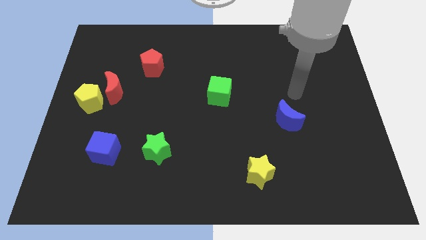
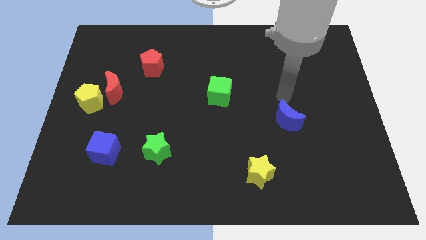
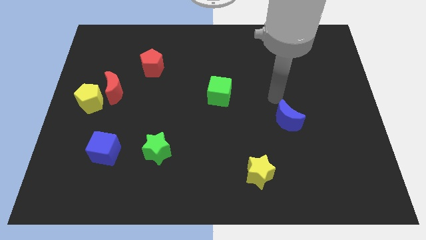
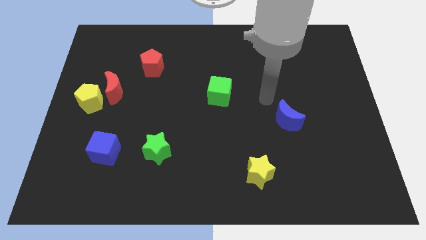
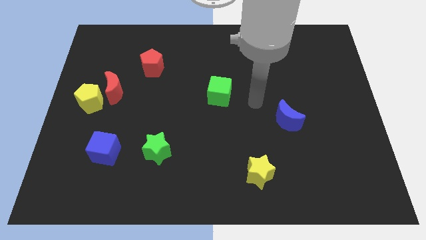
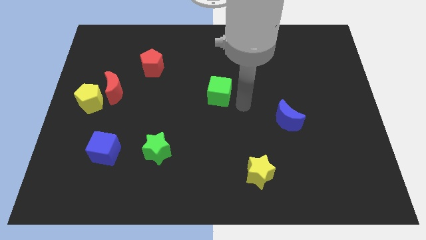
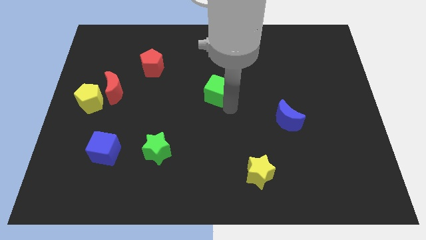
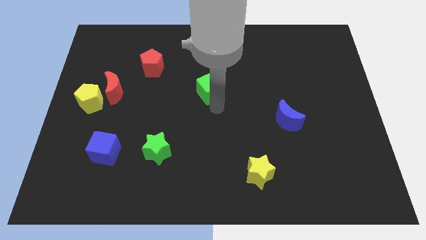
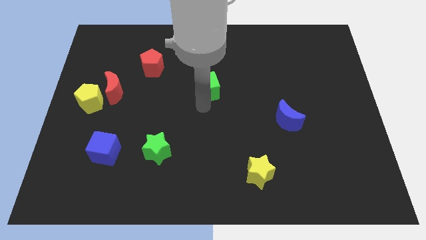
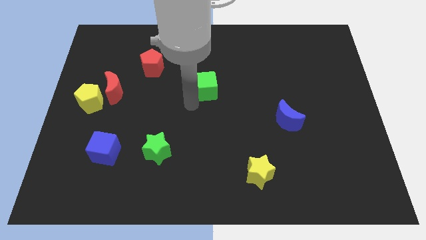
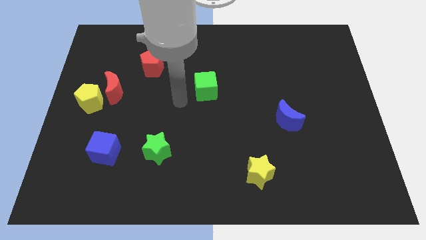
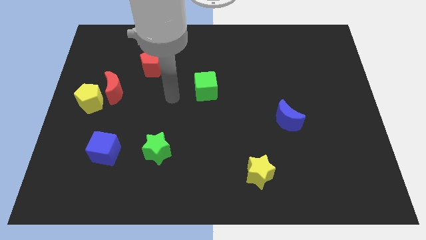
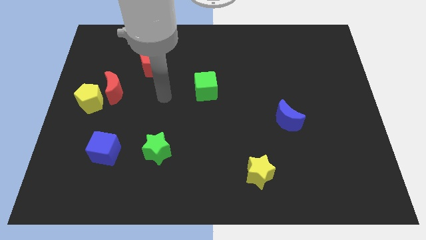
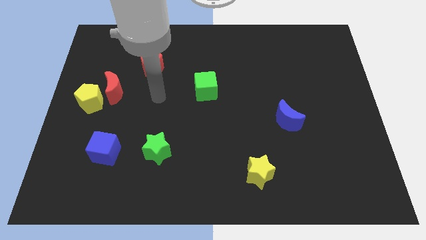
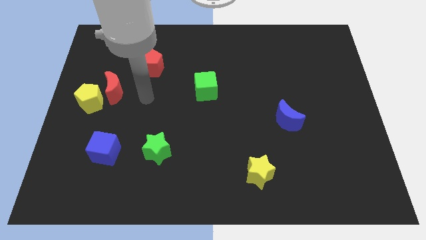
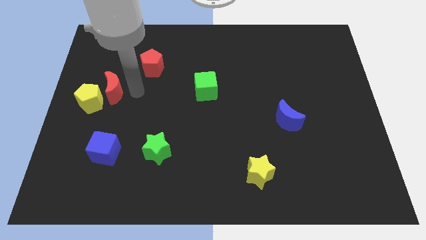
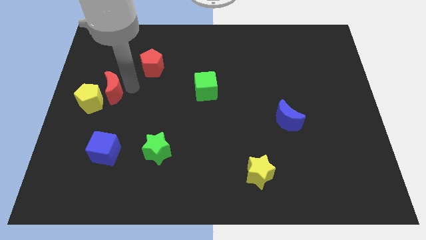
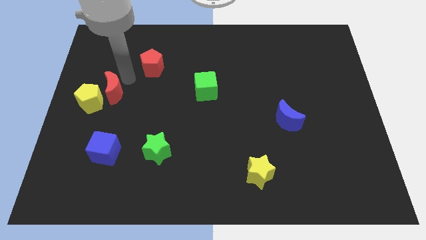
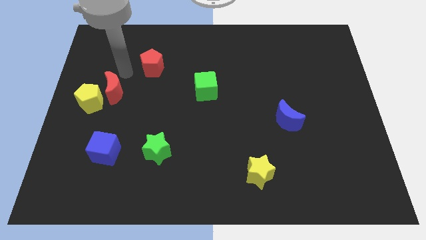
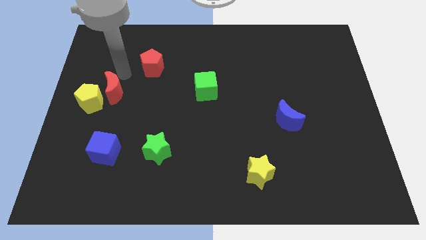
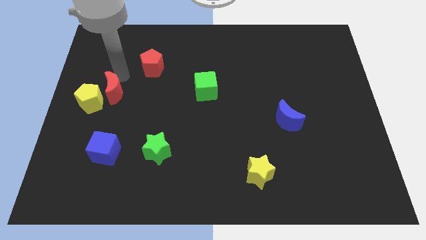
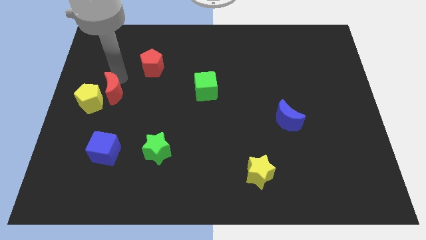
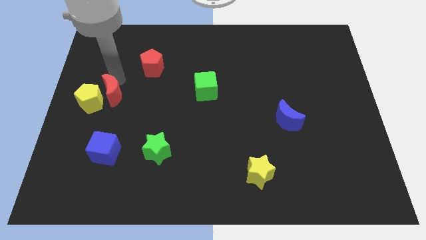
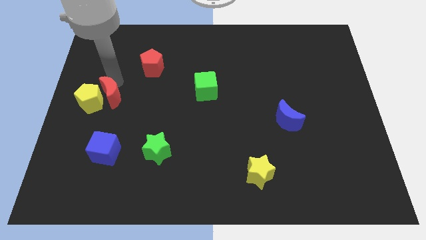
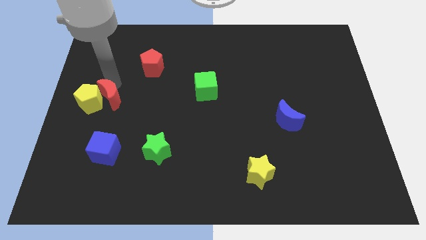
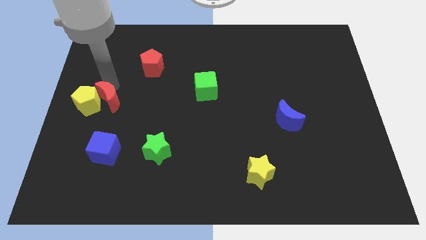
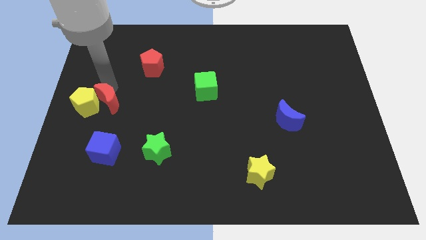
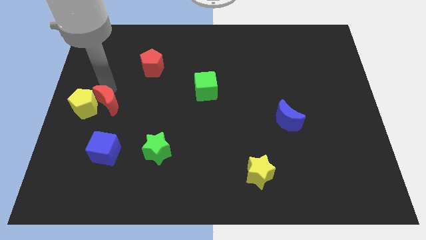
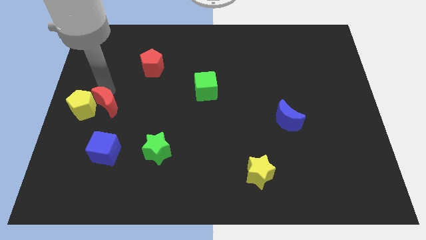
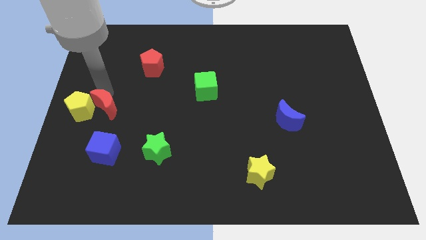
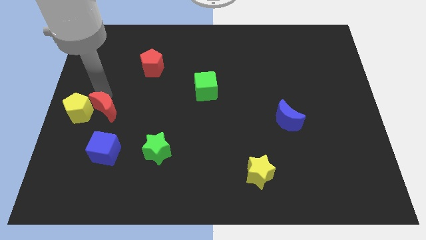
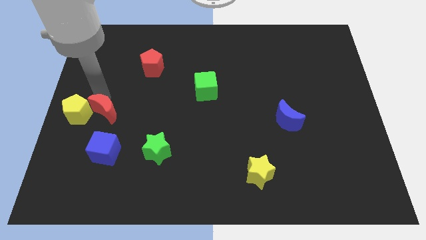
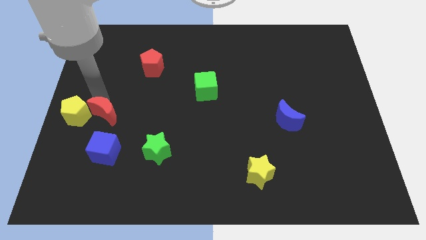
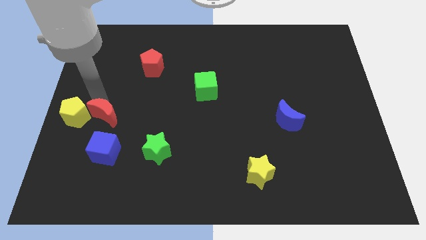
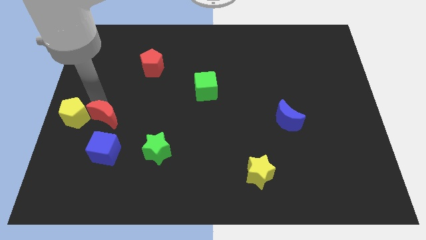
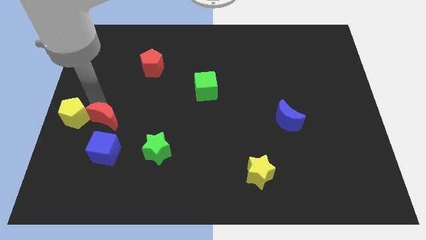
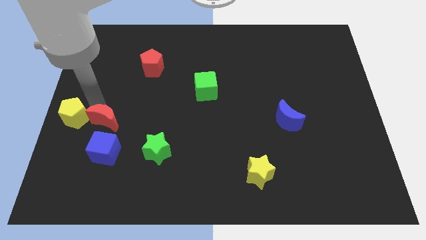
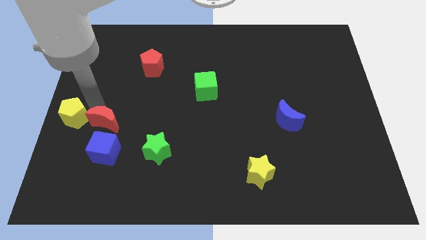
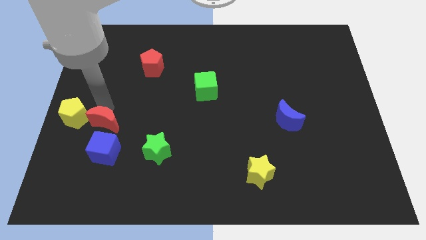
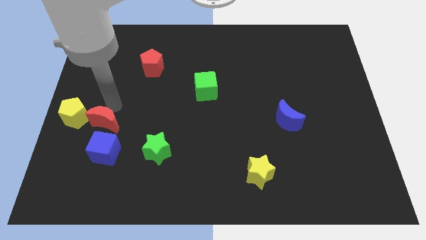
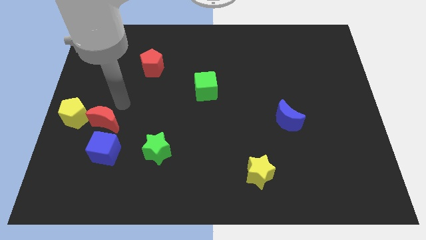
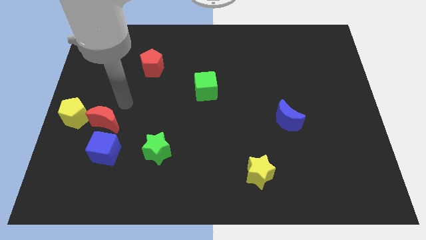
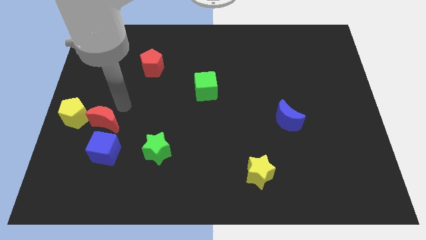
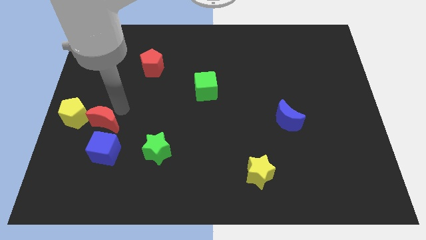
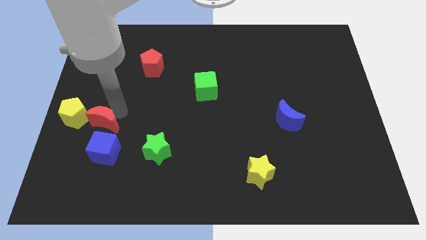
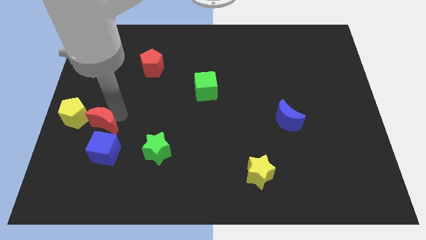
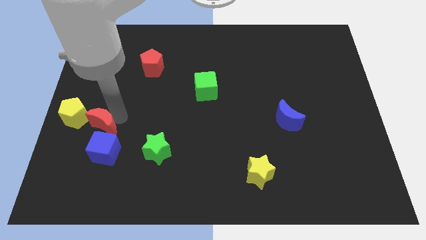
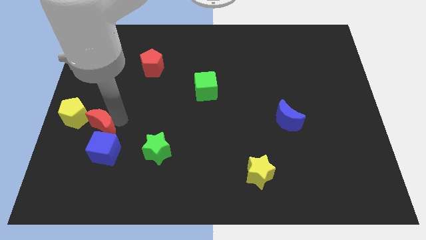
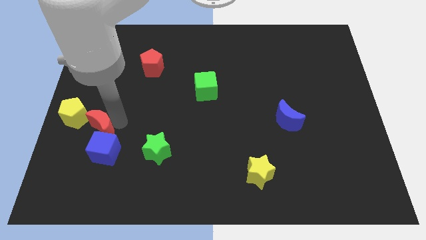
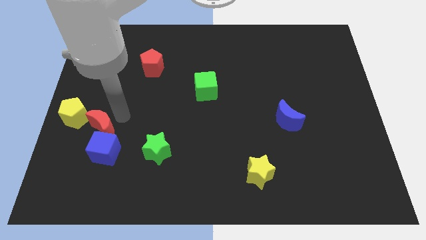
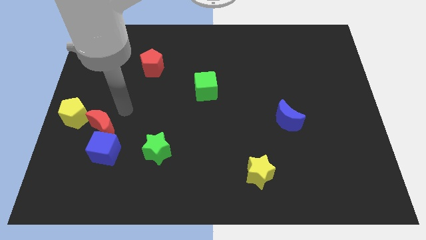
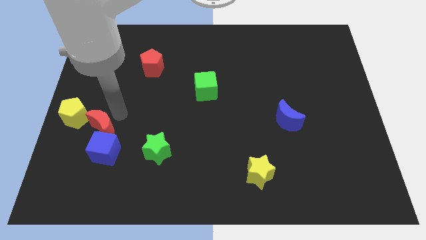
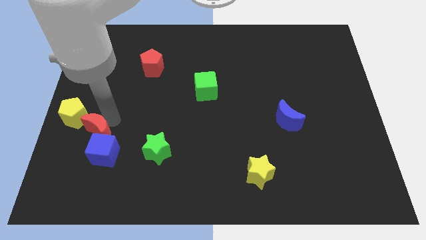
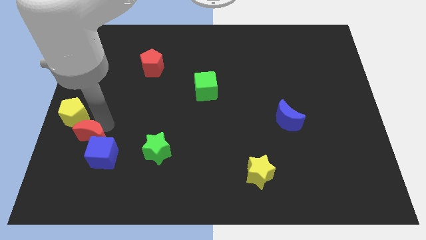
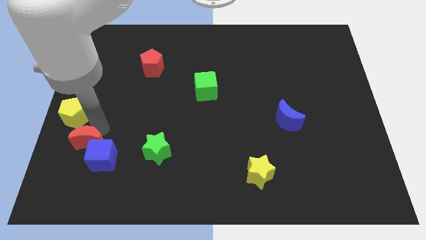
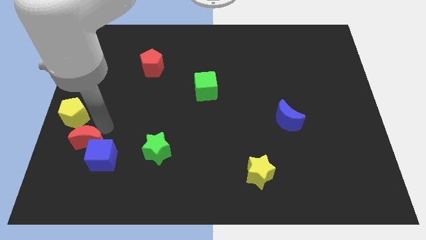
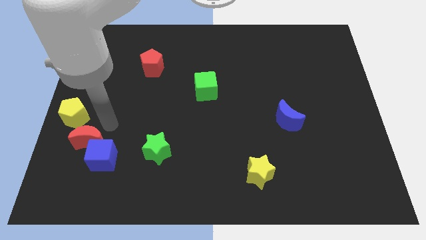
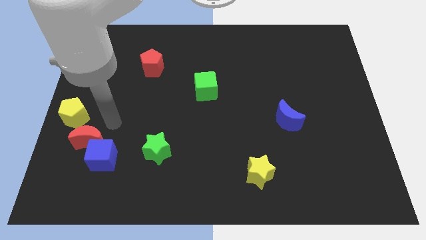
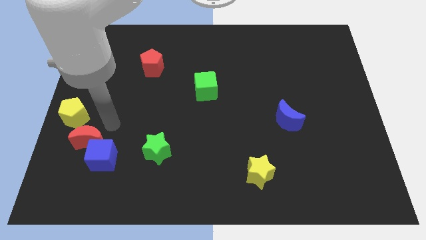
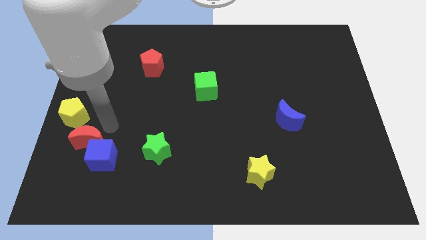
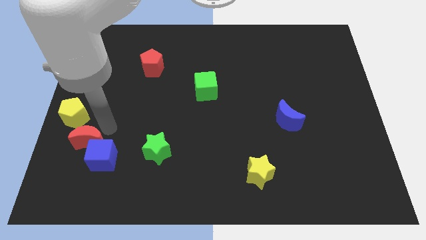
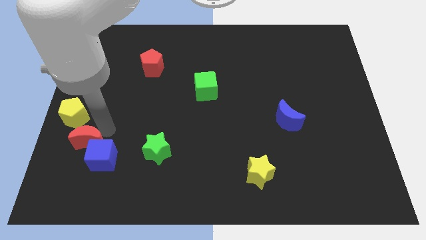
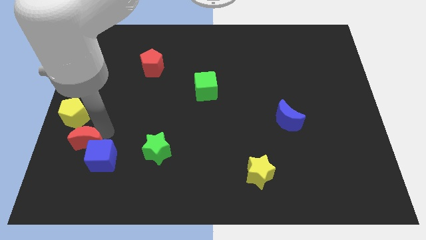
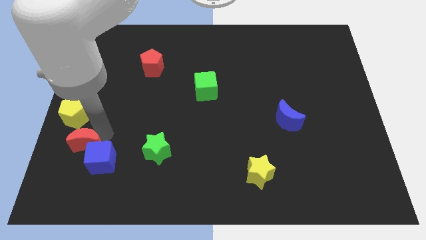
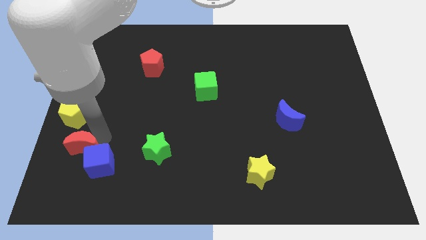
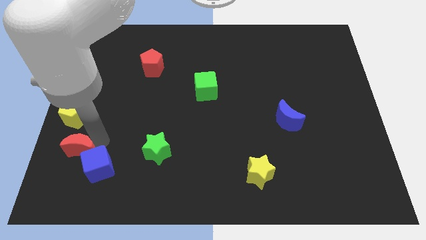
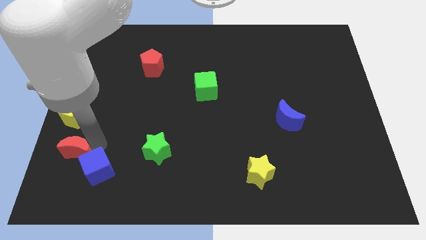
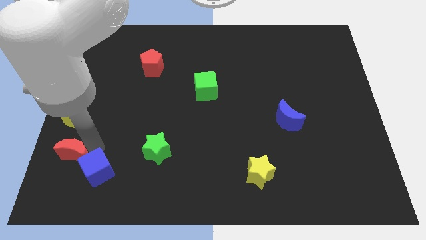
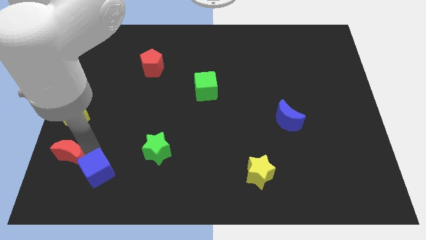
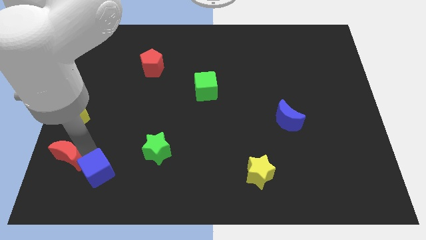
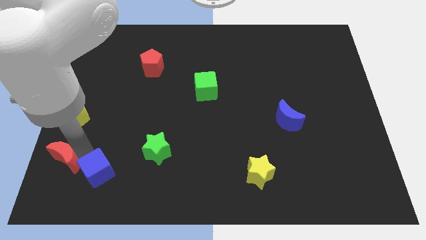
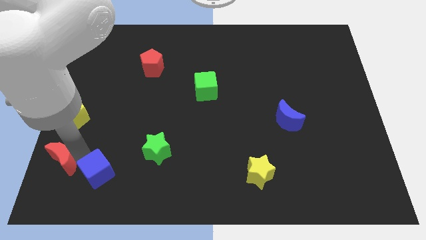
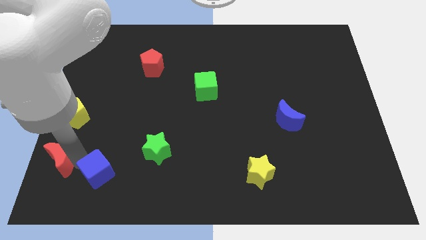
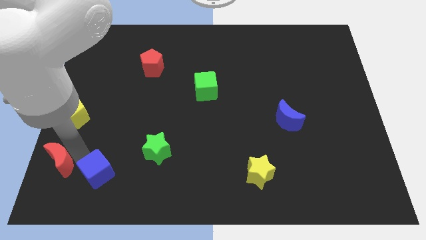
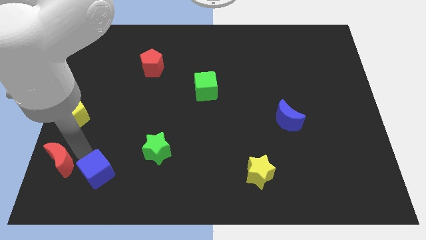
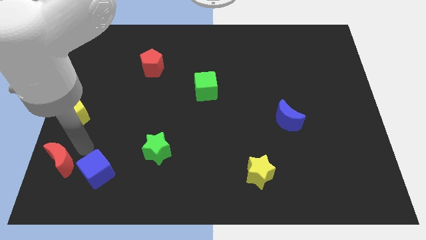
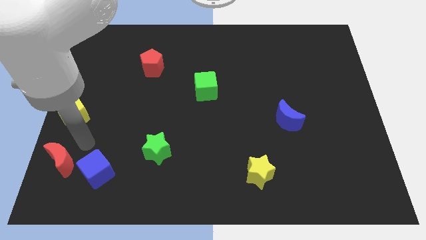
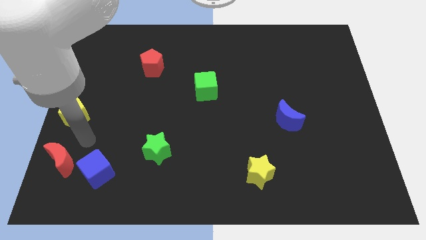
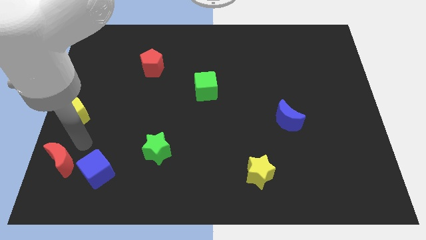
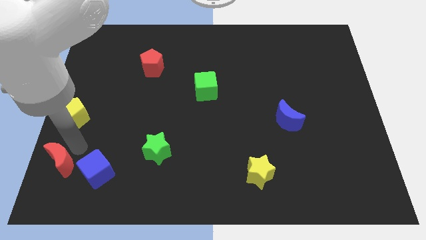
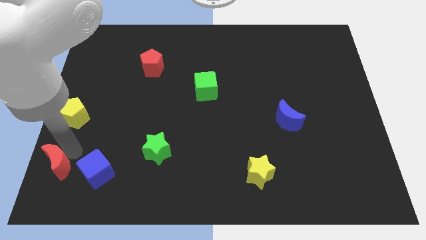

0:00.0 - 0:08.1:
push the red moon to the bottom left corner
